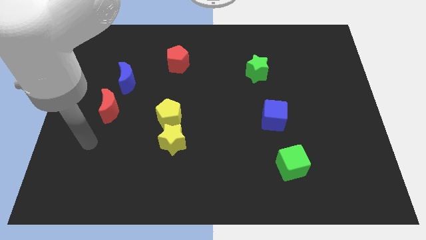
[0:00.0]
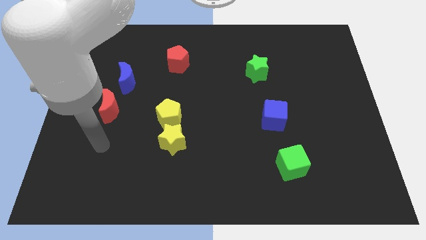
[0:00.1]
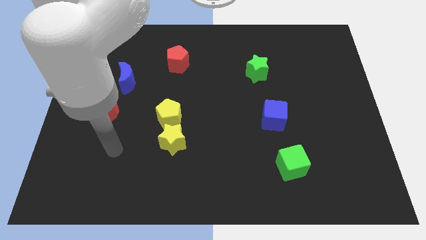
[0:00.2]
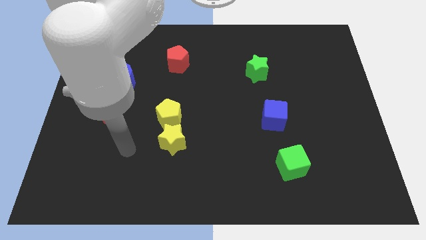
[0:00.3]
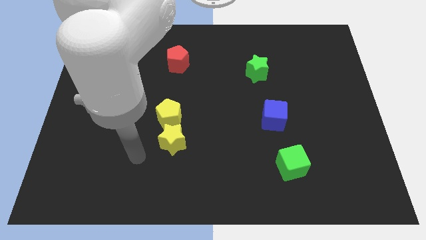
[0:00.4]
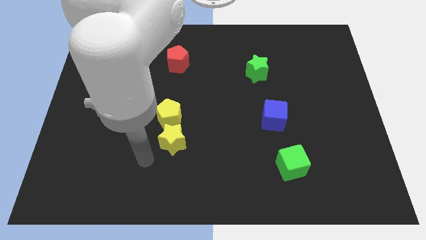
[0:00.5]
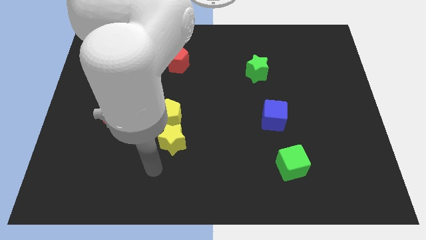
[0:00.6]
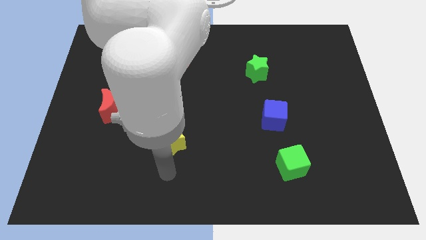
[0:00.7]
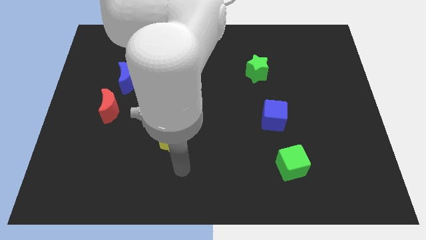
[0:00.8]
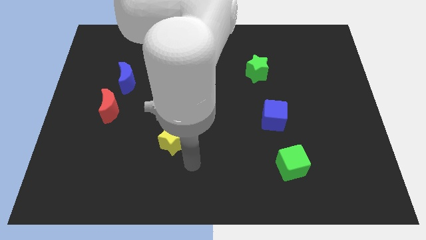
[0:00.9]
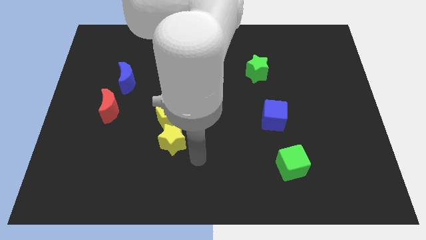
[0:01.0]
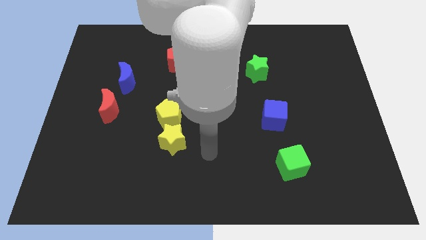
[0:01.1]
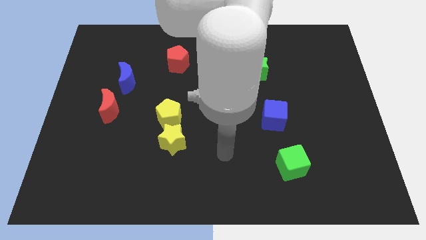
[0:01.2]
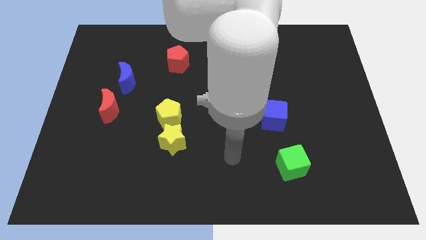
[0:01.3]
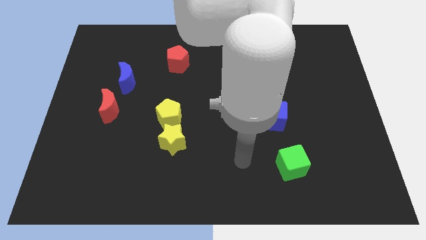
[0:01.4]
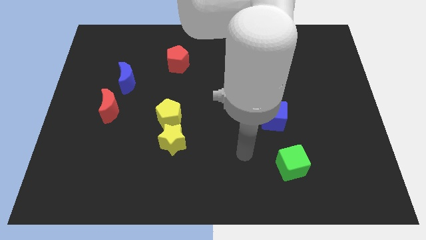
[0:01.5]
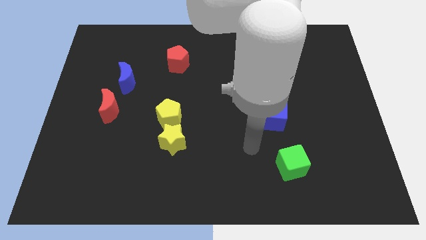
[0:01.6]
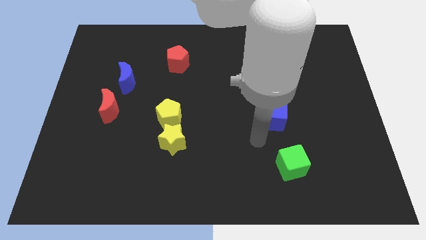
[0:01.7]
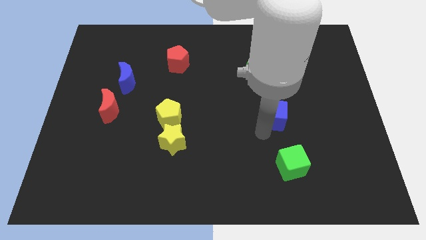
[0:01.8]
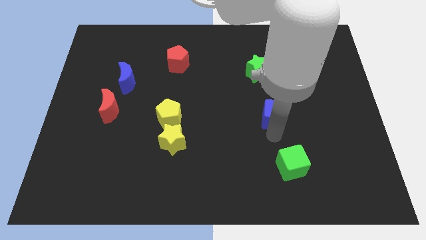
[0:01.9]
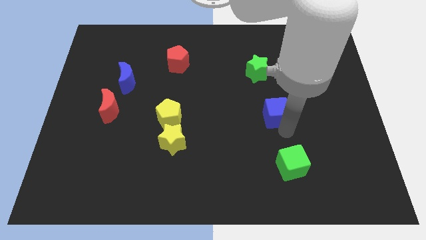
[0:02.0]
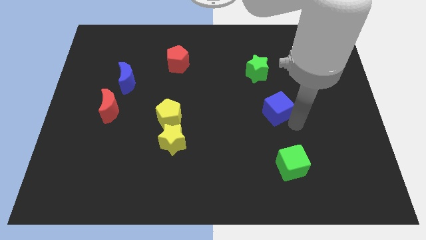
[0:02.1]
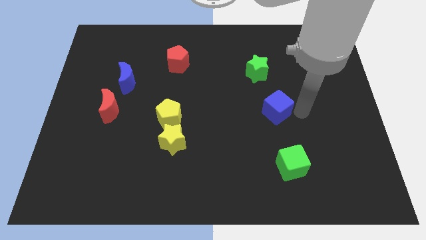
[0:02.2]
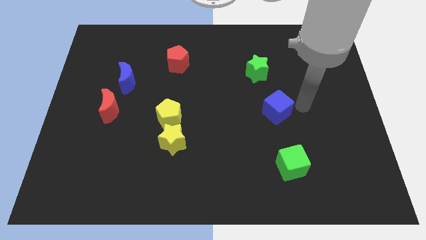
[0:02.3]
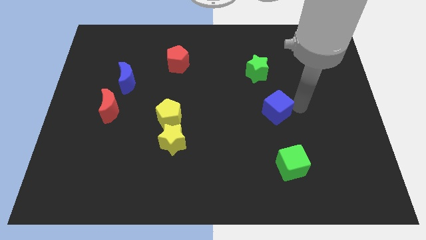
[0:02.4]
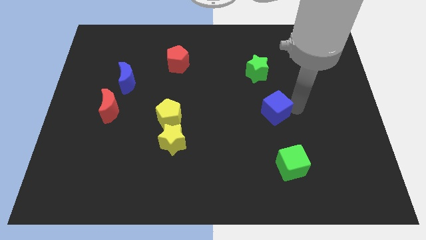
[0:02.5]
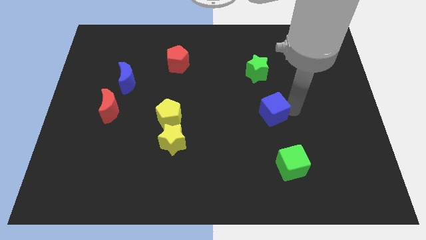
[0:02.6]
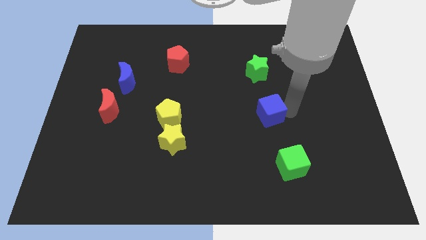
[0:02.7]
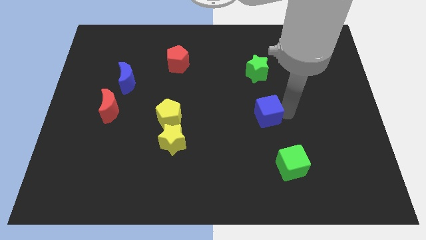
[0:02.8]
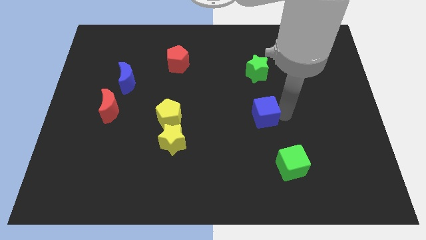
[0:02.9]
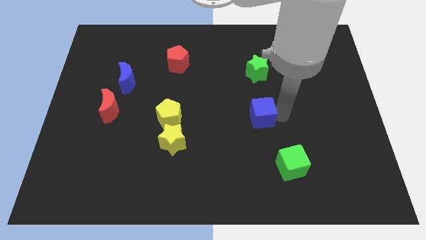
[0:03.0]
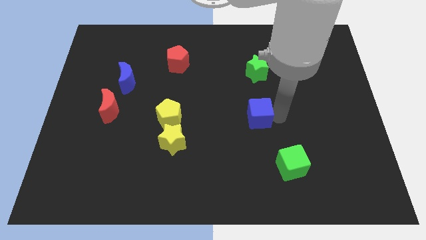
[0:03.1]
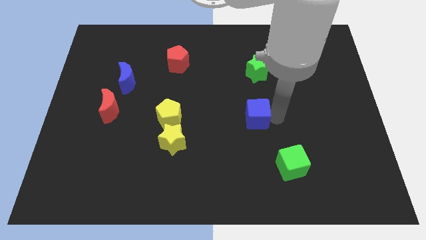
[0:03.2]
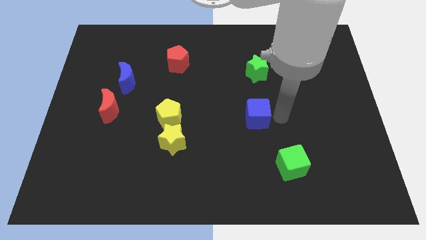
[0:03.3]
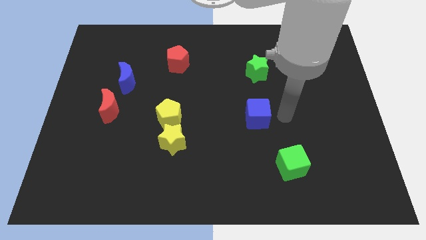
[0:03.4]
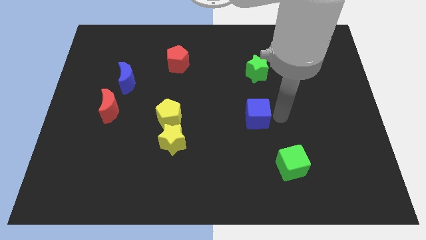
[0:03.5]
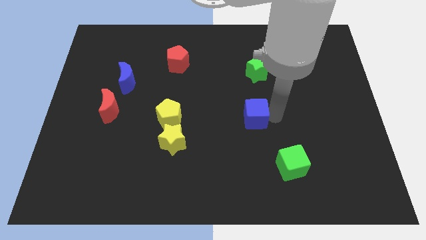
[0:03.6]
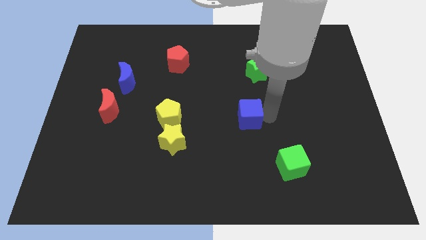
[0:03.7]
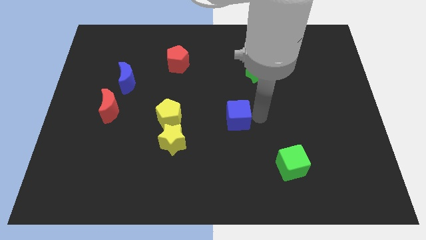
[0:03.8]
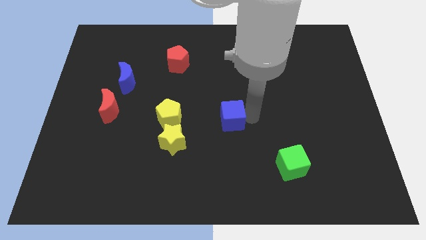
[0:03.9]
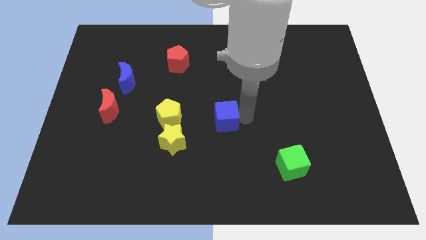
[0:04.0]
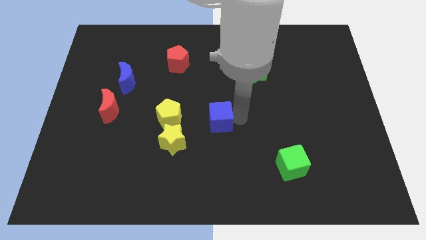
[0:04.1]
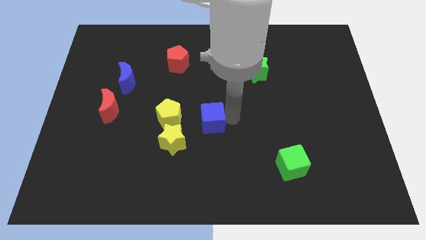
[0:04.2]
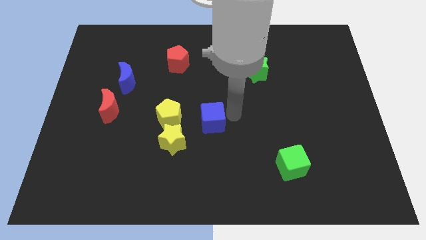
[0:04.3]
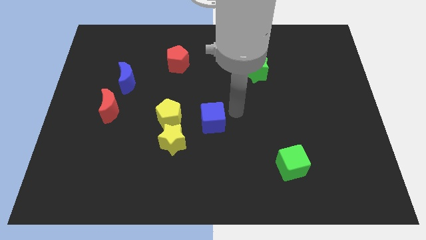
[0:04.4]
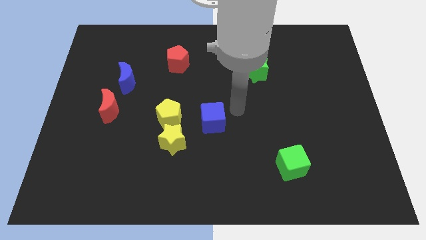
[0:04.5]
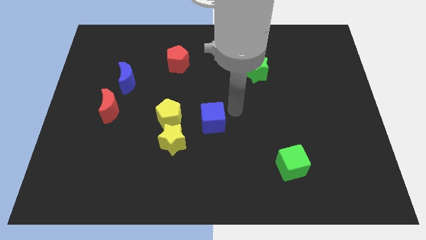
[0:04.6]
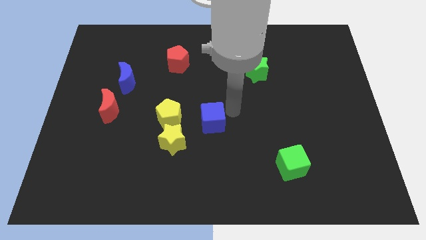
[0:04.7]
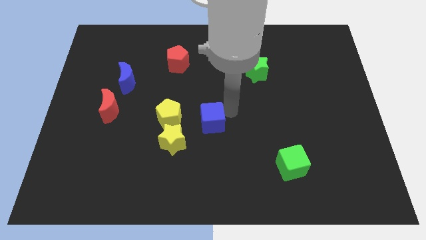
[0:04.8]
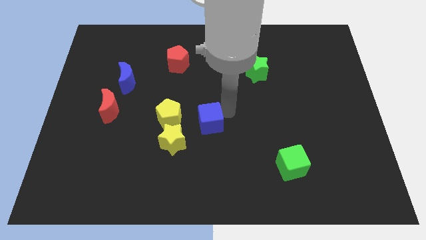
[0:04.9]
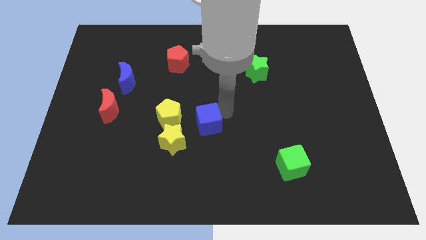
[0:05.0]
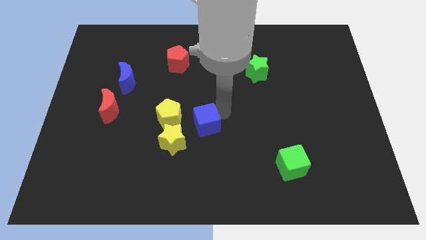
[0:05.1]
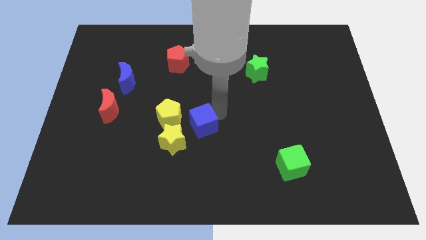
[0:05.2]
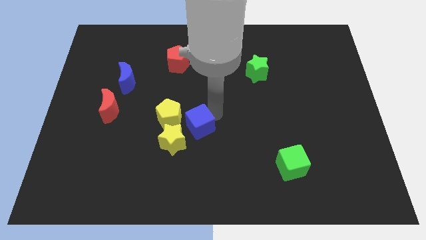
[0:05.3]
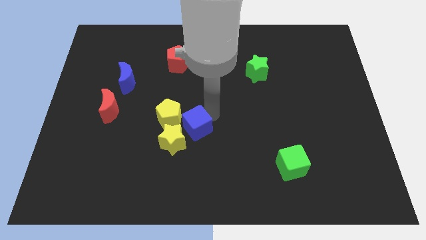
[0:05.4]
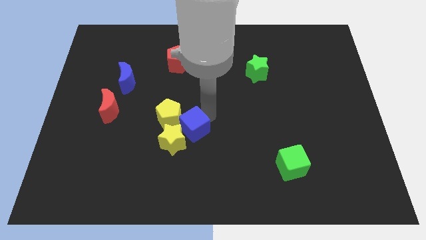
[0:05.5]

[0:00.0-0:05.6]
put the blue cube to the yellow star

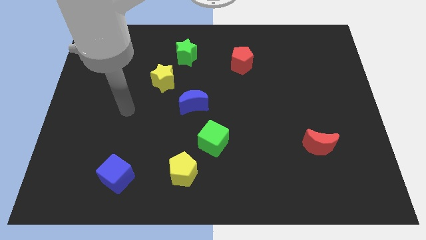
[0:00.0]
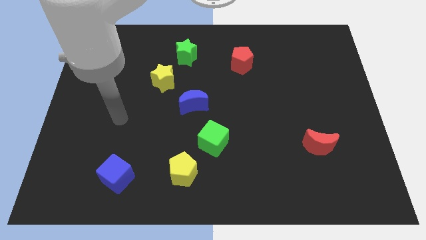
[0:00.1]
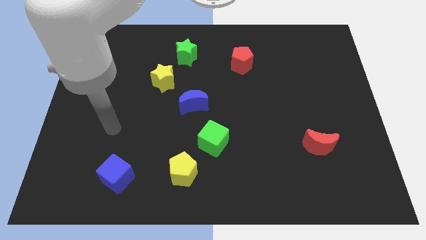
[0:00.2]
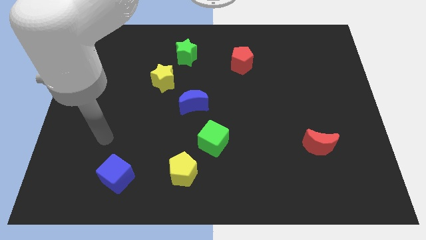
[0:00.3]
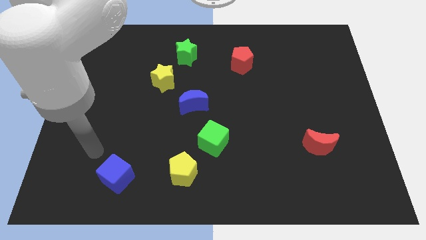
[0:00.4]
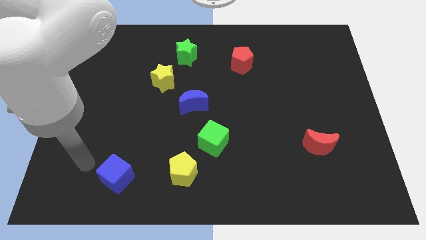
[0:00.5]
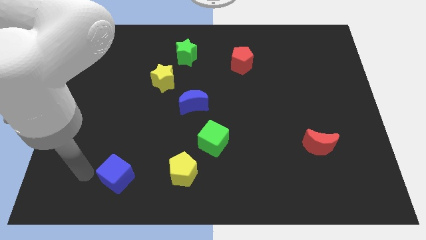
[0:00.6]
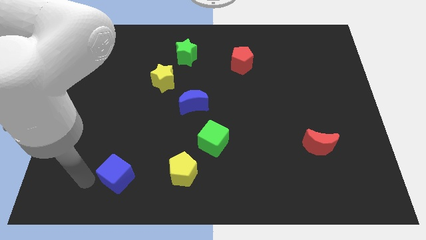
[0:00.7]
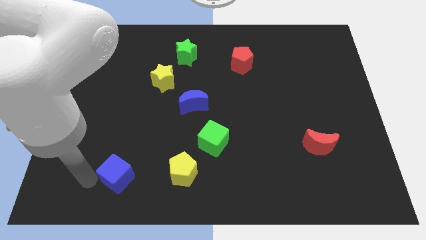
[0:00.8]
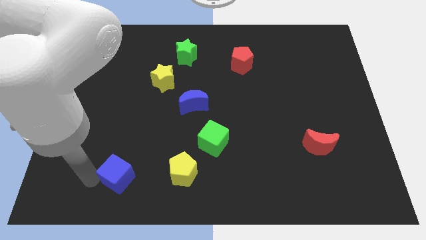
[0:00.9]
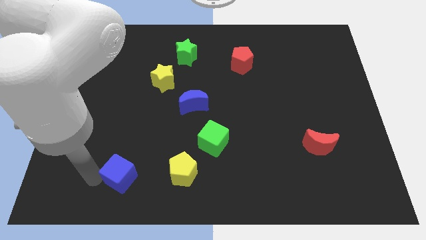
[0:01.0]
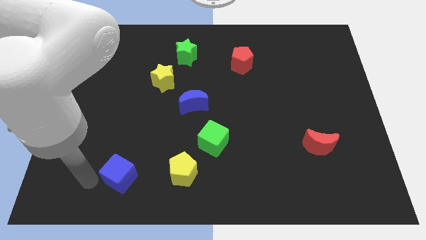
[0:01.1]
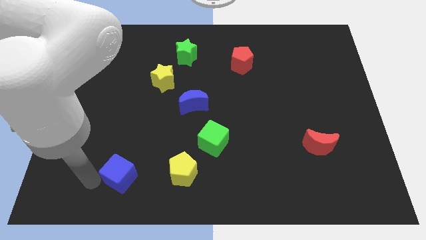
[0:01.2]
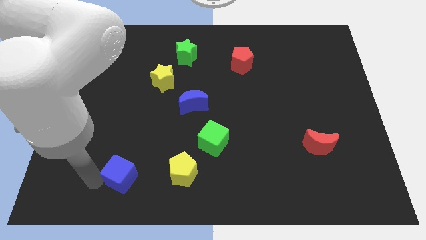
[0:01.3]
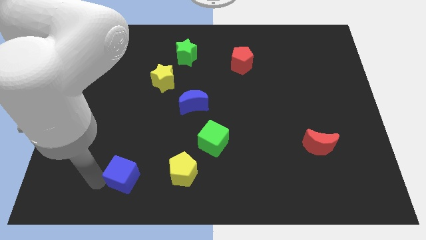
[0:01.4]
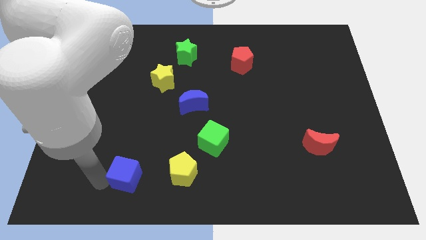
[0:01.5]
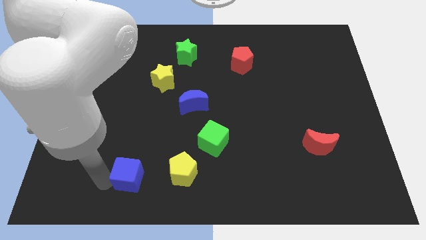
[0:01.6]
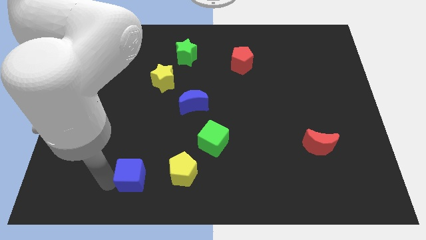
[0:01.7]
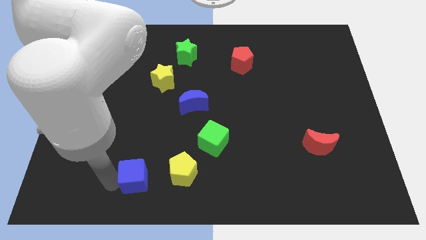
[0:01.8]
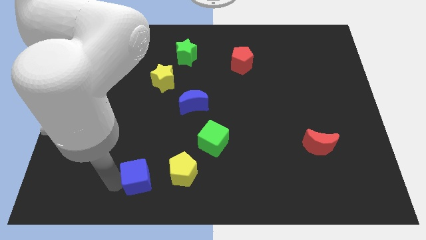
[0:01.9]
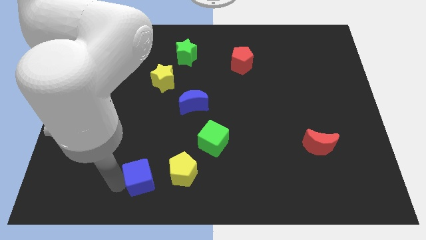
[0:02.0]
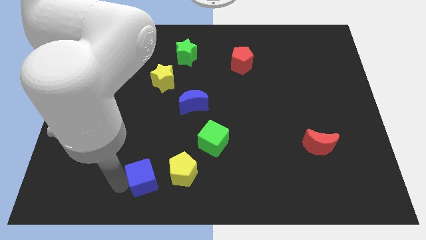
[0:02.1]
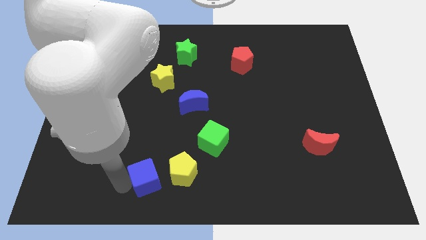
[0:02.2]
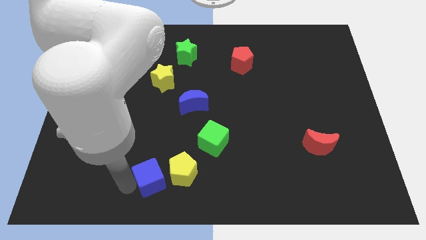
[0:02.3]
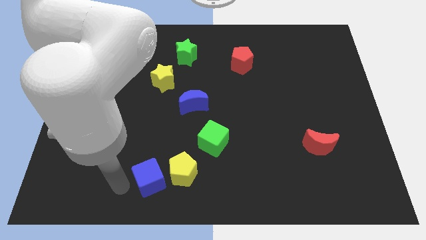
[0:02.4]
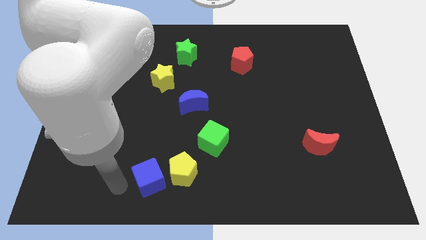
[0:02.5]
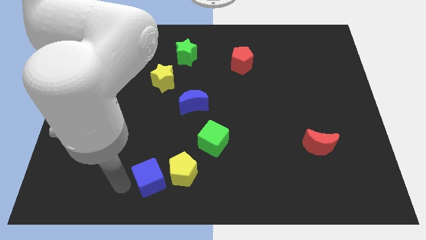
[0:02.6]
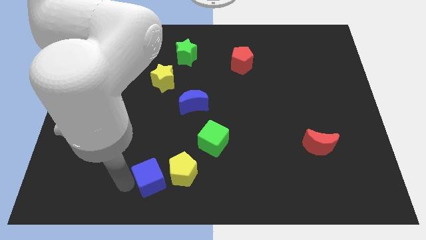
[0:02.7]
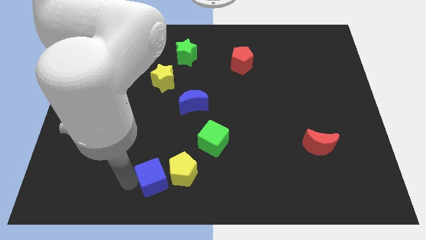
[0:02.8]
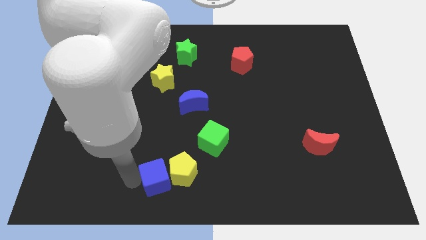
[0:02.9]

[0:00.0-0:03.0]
move the blue cube towards the yellow pentagon
